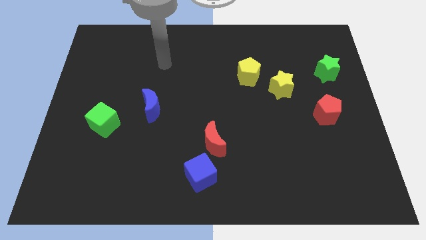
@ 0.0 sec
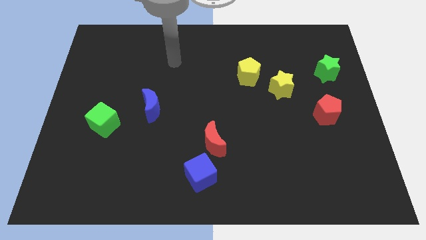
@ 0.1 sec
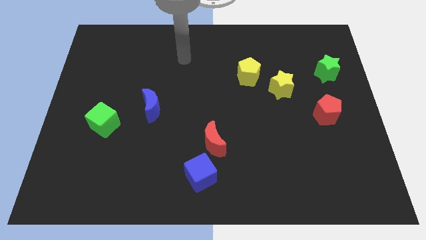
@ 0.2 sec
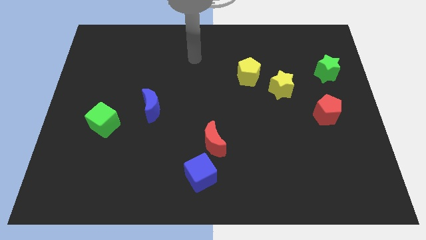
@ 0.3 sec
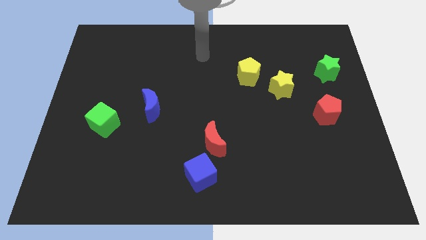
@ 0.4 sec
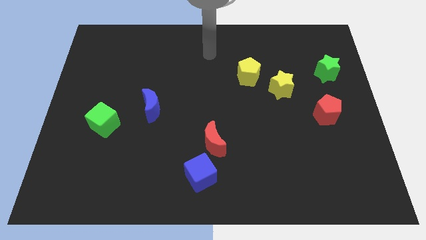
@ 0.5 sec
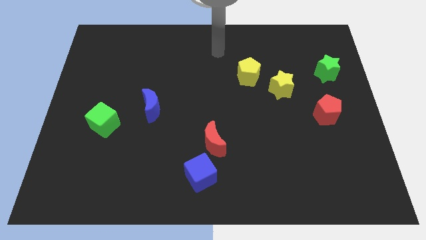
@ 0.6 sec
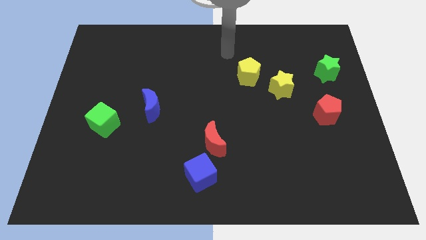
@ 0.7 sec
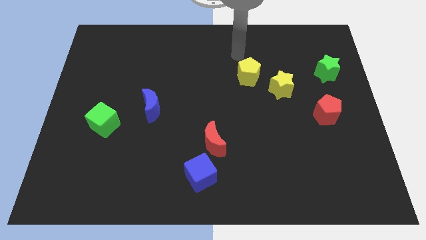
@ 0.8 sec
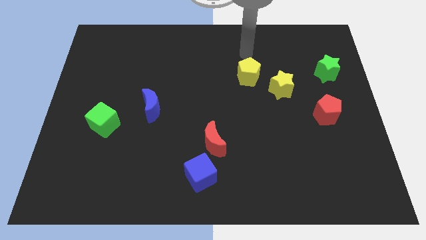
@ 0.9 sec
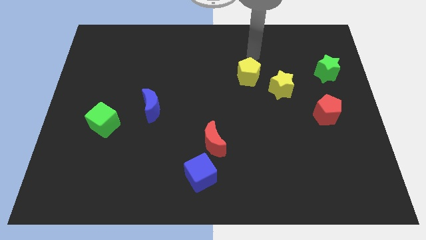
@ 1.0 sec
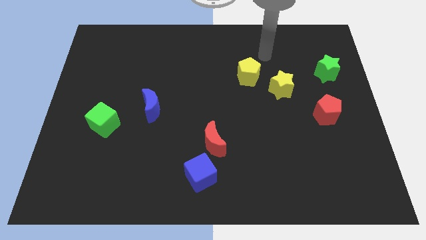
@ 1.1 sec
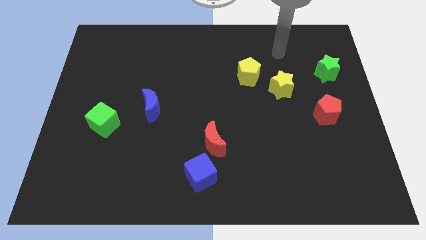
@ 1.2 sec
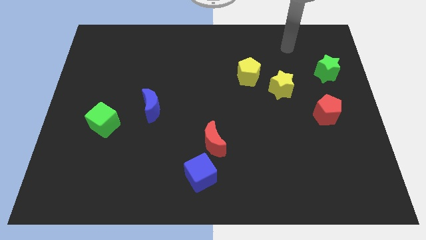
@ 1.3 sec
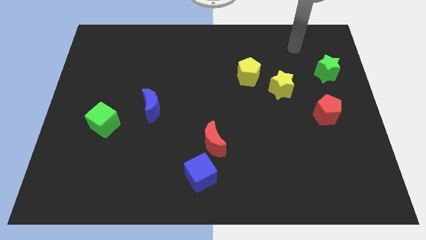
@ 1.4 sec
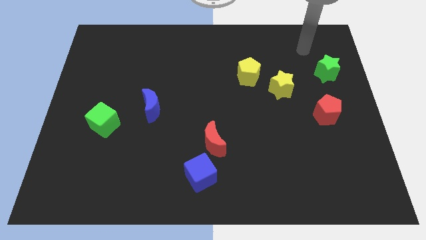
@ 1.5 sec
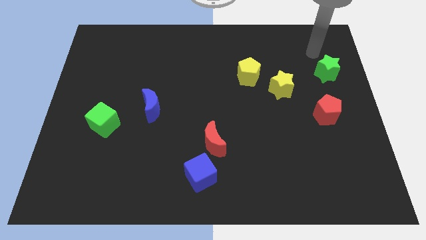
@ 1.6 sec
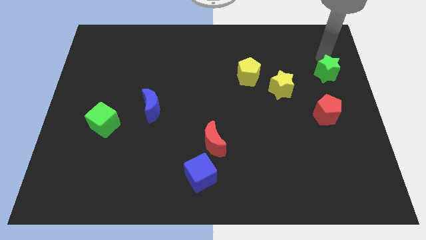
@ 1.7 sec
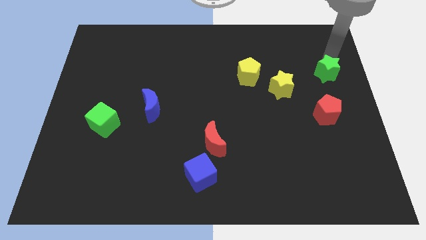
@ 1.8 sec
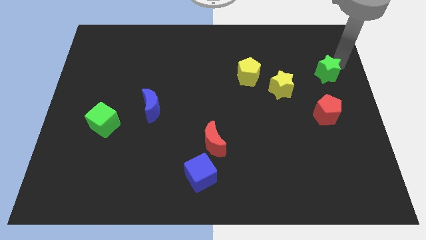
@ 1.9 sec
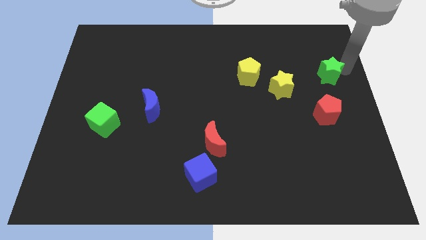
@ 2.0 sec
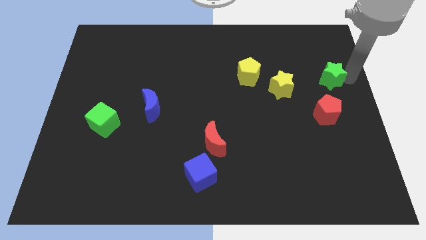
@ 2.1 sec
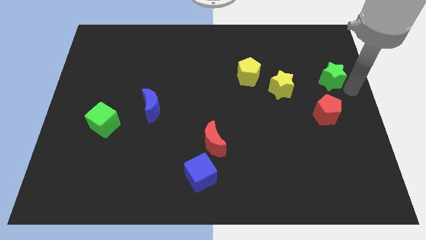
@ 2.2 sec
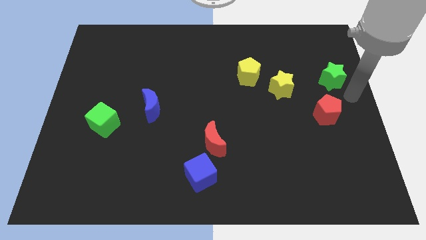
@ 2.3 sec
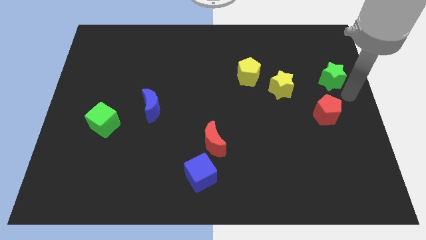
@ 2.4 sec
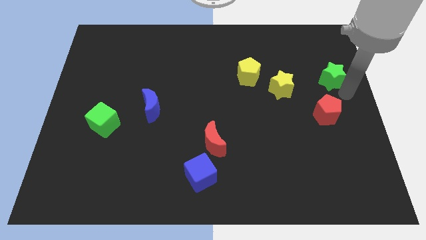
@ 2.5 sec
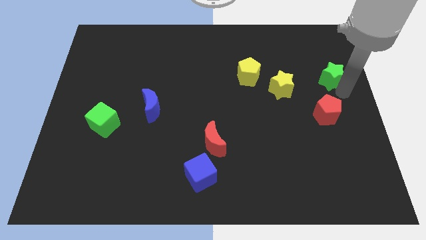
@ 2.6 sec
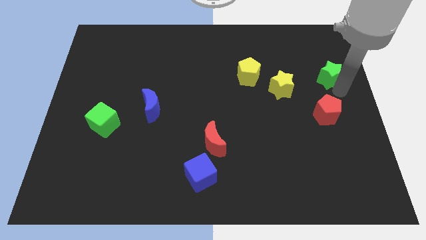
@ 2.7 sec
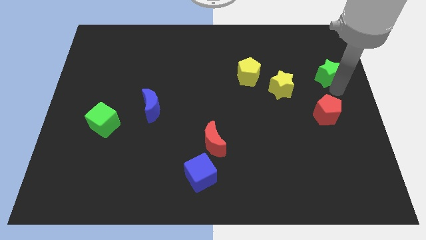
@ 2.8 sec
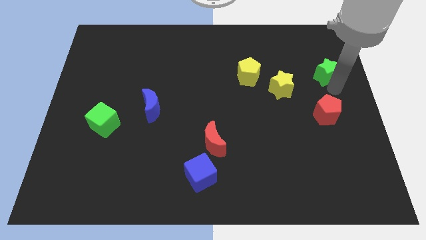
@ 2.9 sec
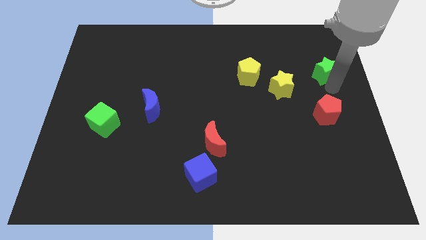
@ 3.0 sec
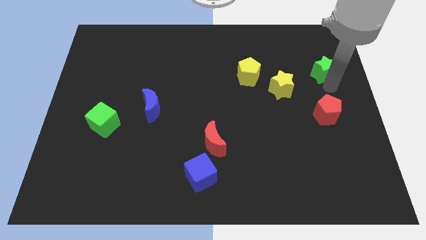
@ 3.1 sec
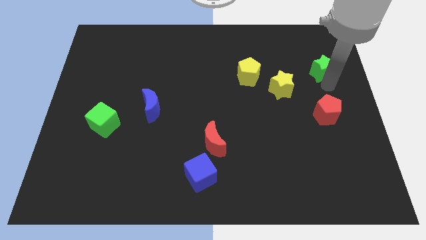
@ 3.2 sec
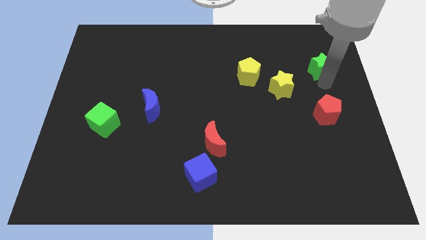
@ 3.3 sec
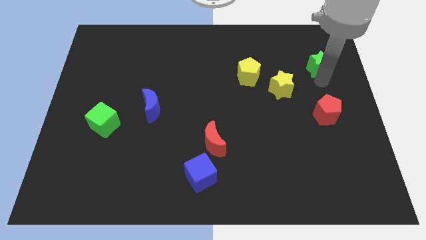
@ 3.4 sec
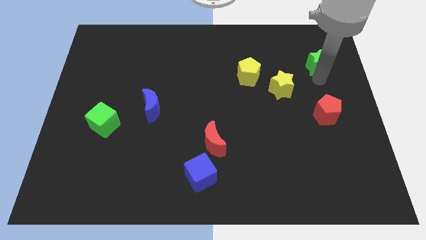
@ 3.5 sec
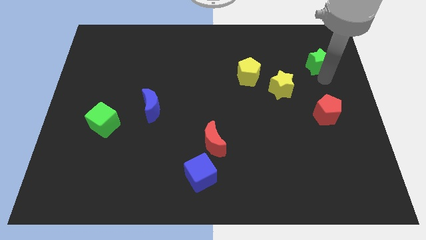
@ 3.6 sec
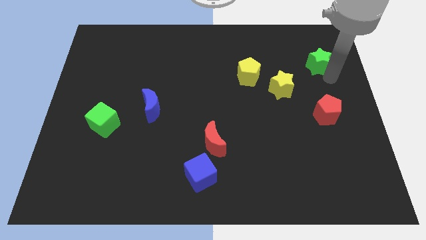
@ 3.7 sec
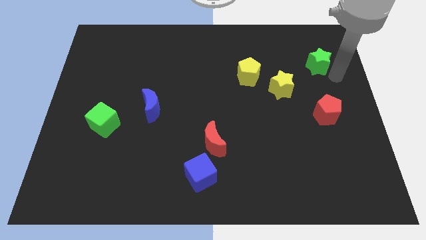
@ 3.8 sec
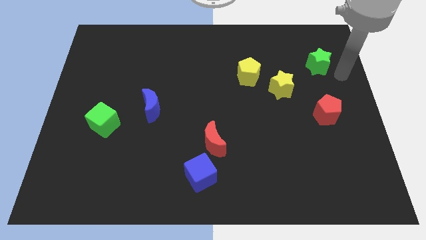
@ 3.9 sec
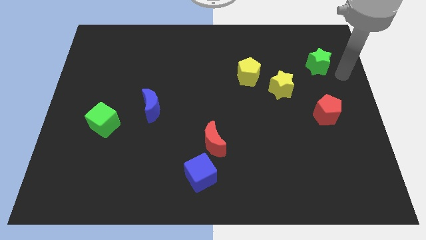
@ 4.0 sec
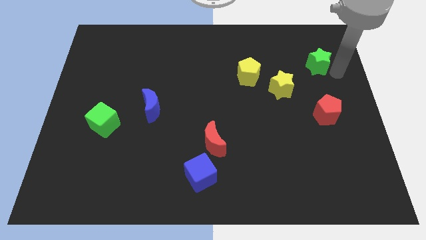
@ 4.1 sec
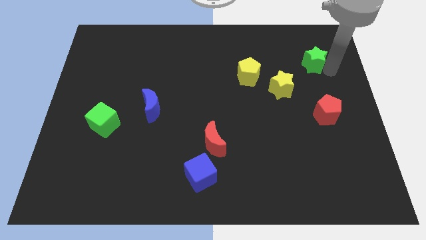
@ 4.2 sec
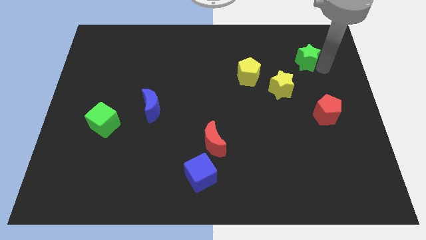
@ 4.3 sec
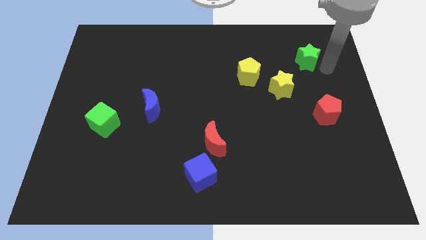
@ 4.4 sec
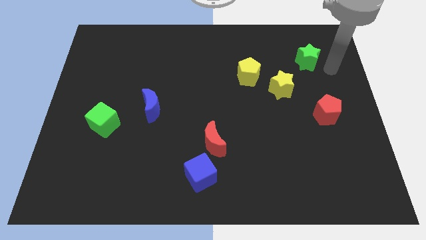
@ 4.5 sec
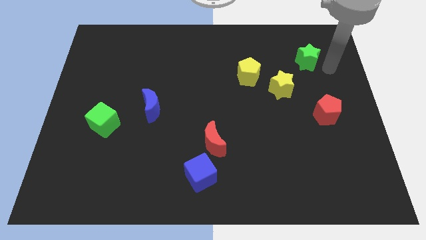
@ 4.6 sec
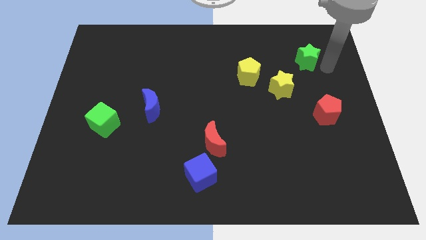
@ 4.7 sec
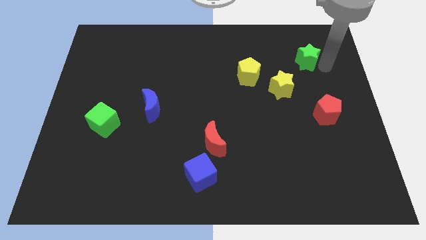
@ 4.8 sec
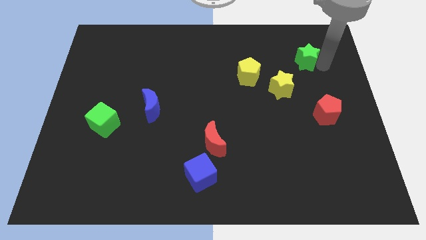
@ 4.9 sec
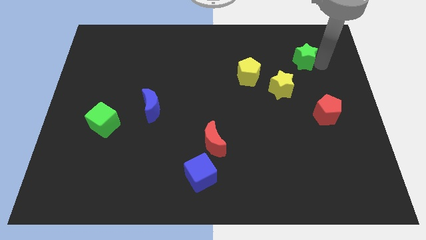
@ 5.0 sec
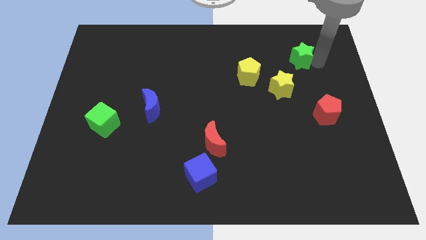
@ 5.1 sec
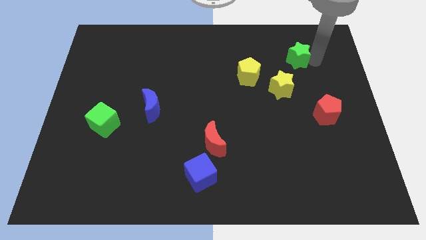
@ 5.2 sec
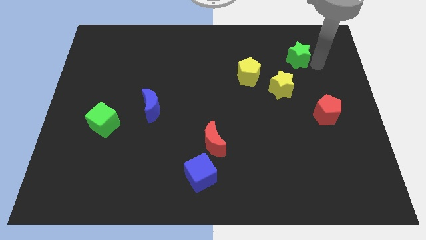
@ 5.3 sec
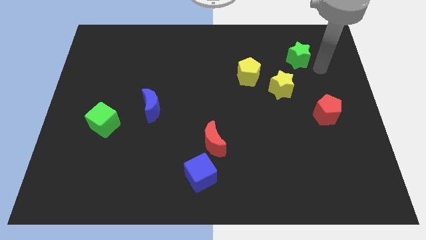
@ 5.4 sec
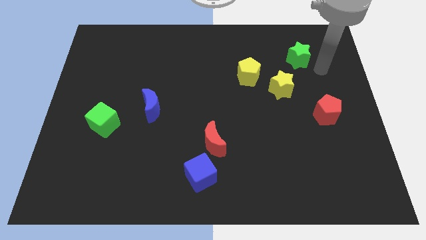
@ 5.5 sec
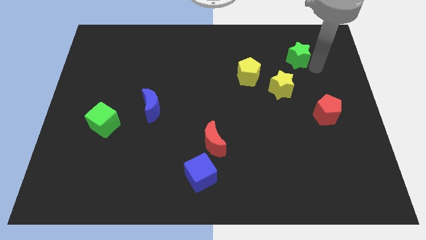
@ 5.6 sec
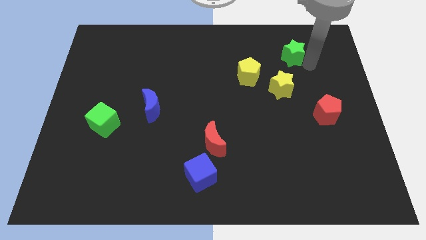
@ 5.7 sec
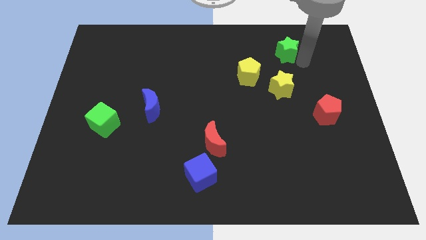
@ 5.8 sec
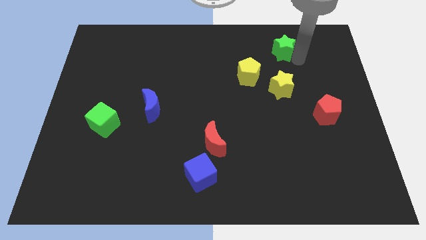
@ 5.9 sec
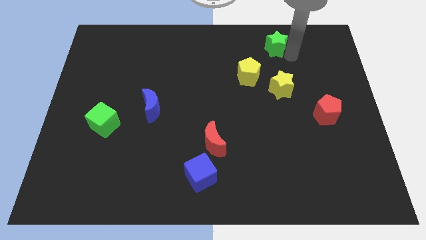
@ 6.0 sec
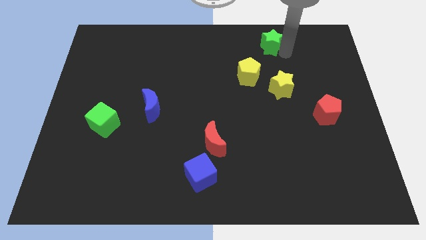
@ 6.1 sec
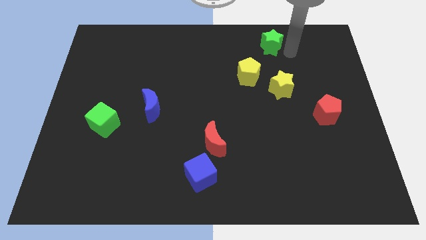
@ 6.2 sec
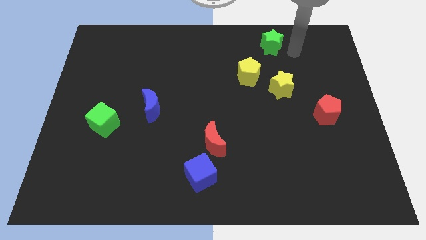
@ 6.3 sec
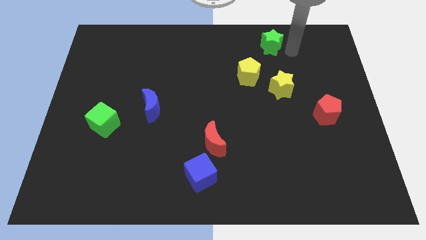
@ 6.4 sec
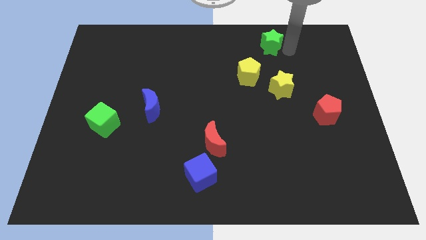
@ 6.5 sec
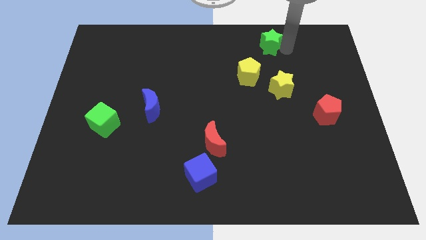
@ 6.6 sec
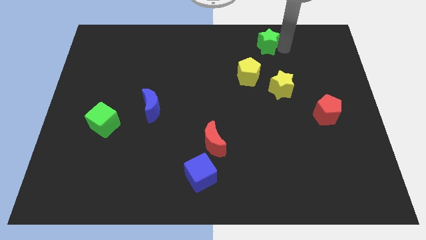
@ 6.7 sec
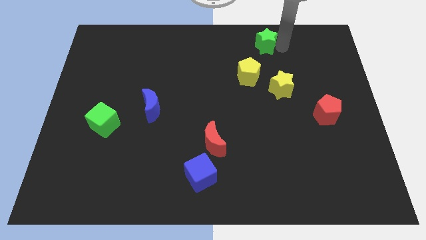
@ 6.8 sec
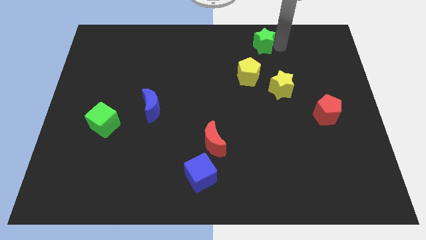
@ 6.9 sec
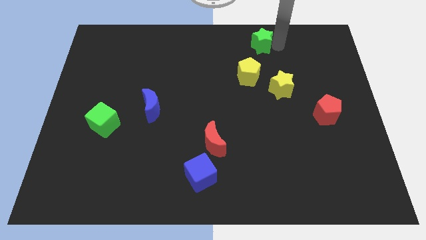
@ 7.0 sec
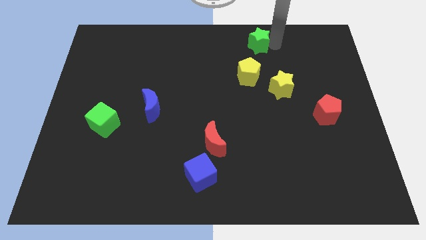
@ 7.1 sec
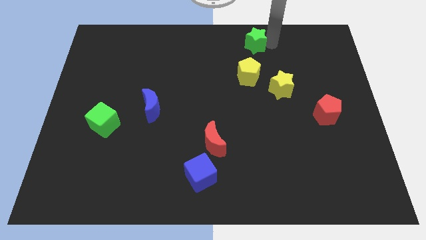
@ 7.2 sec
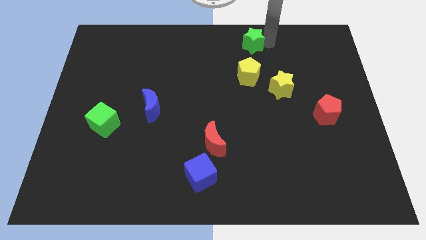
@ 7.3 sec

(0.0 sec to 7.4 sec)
slide the green star to the top side
